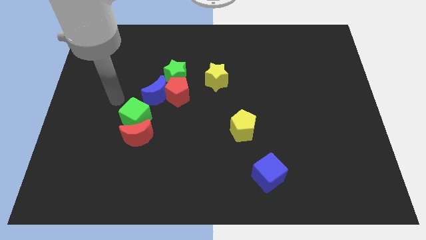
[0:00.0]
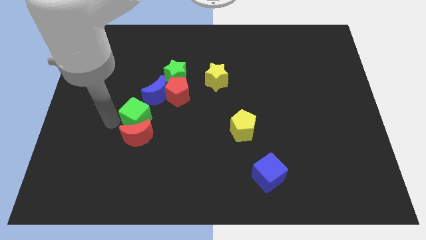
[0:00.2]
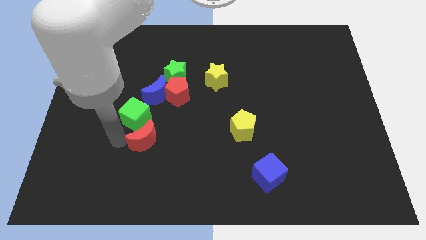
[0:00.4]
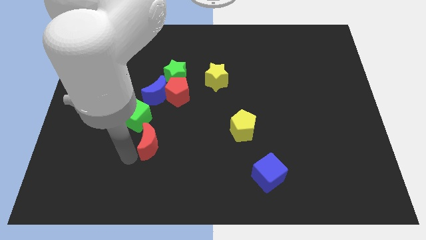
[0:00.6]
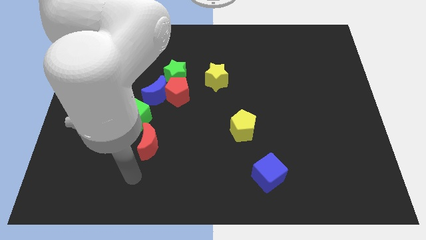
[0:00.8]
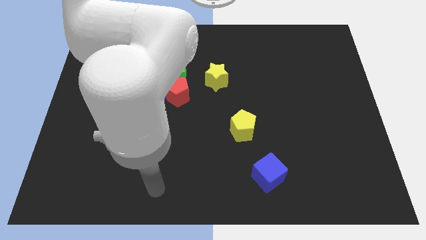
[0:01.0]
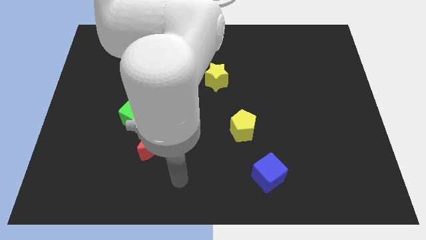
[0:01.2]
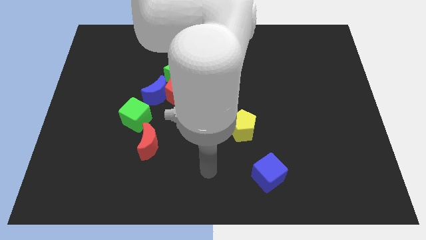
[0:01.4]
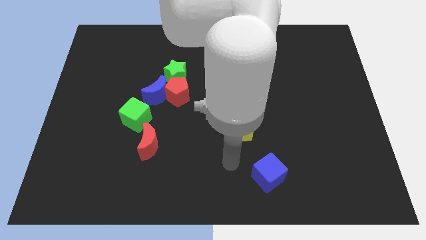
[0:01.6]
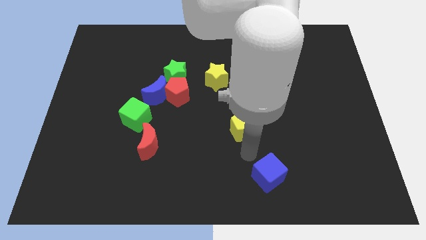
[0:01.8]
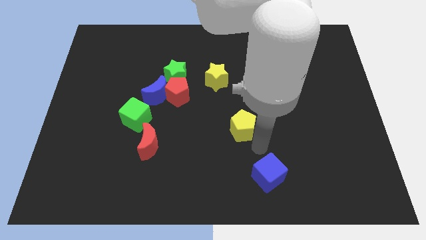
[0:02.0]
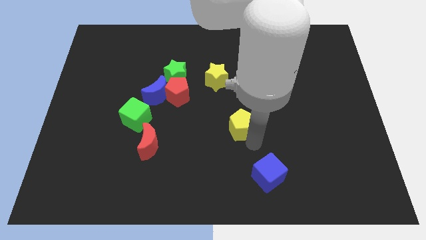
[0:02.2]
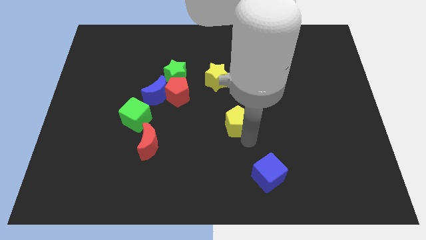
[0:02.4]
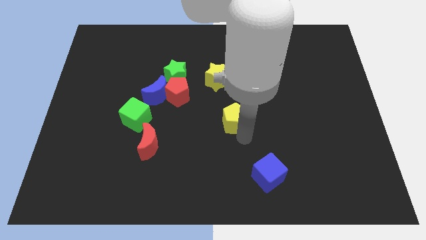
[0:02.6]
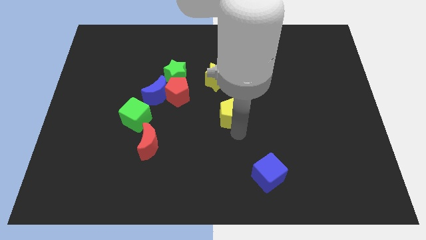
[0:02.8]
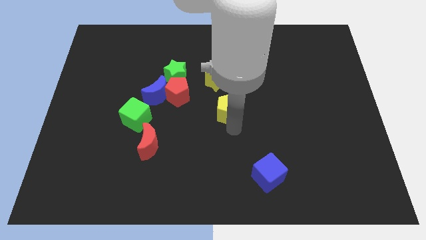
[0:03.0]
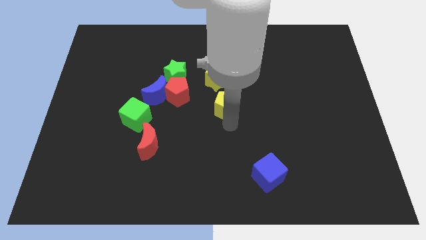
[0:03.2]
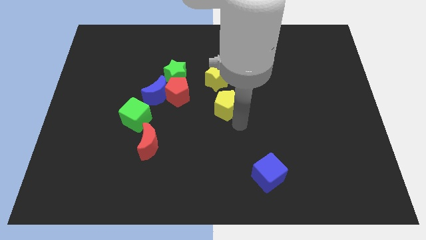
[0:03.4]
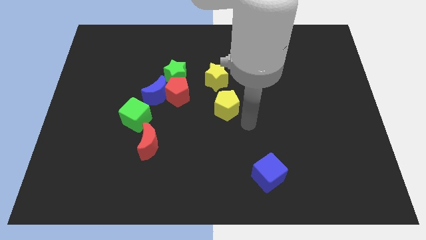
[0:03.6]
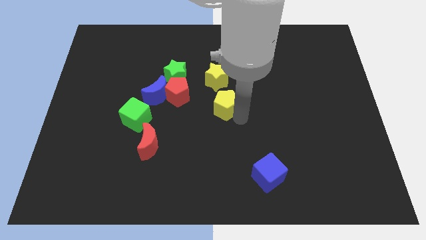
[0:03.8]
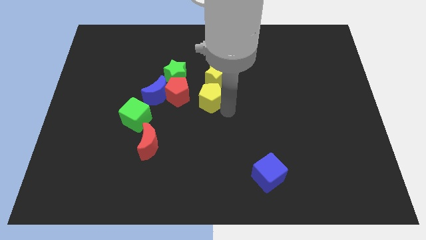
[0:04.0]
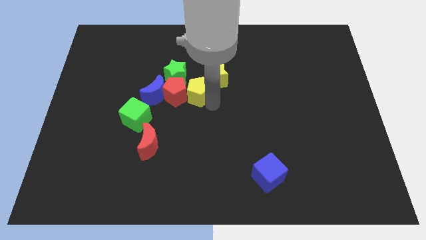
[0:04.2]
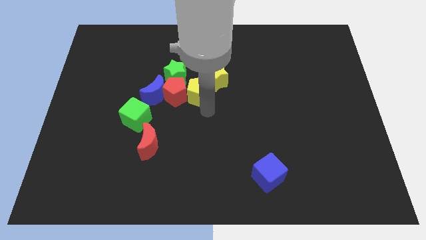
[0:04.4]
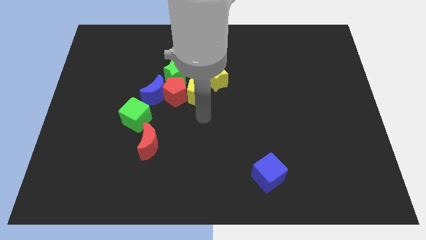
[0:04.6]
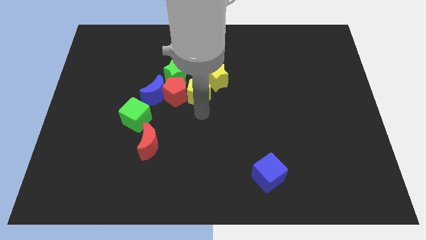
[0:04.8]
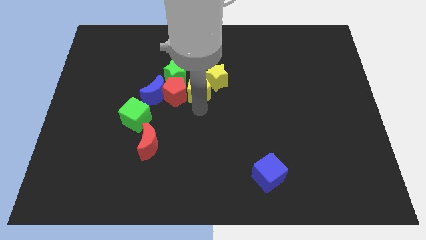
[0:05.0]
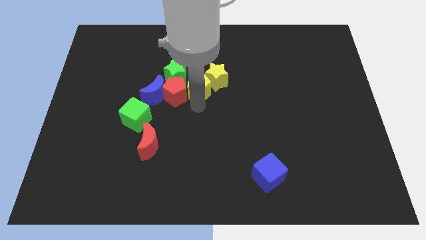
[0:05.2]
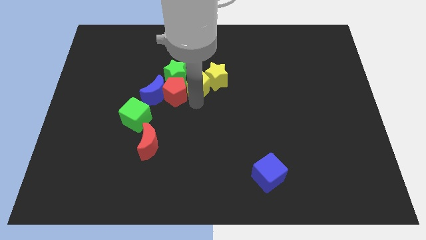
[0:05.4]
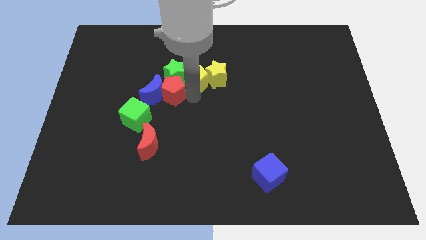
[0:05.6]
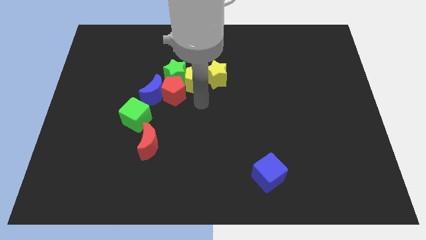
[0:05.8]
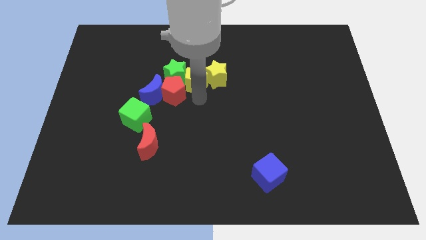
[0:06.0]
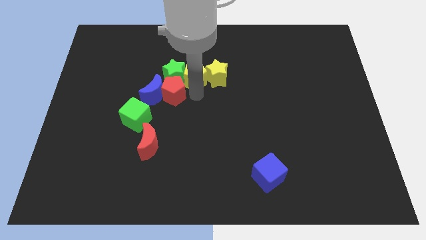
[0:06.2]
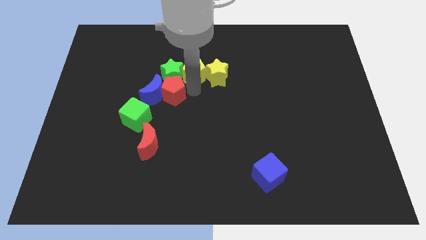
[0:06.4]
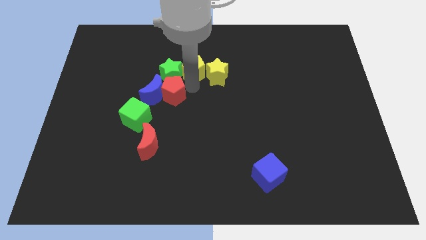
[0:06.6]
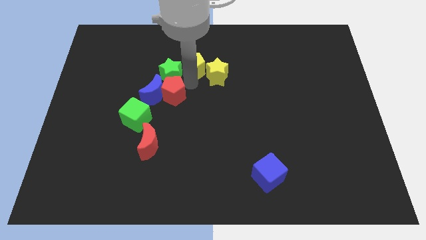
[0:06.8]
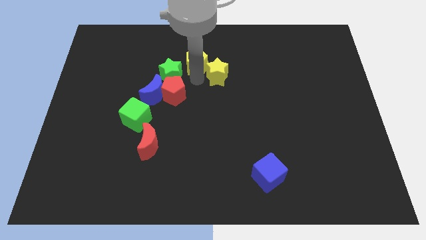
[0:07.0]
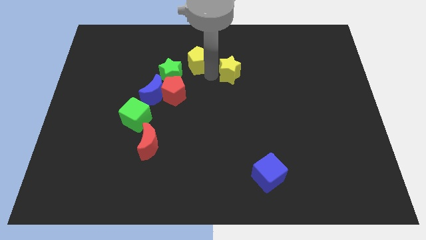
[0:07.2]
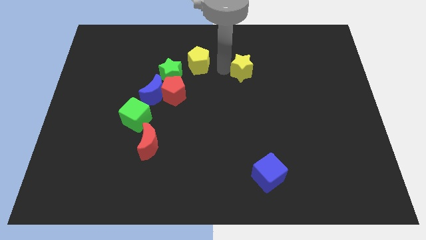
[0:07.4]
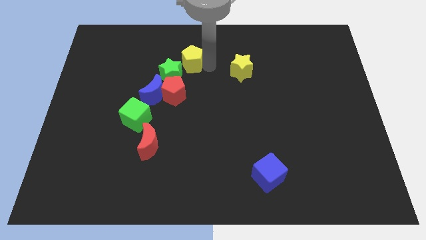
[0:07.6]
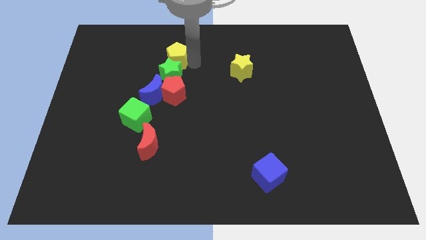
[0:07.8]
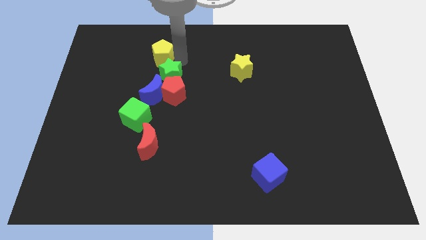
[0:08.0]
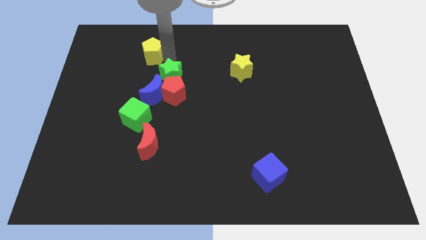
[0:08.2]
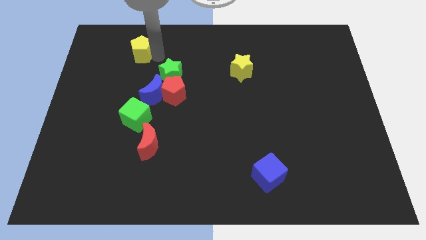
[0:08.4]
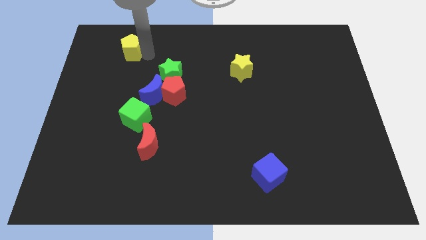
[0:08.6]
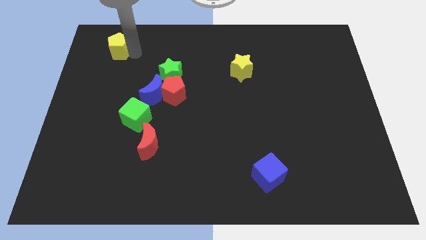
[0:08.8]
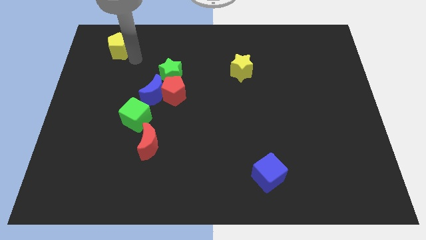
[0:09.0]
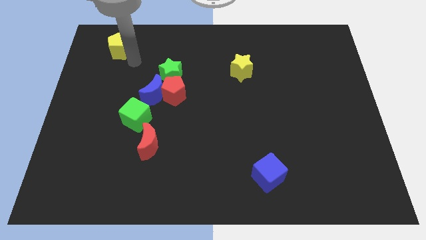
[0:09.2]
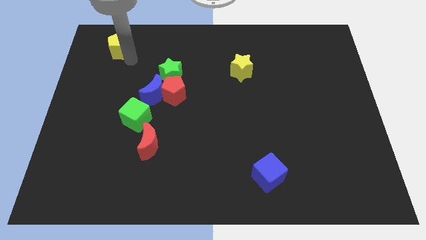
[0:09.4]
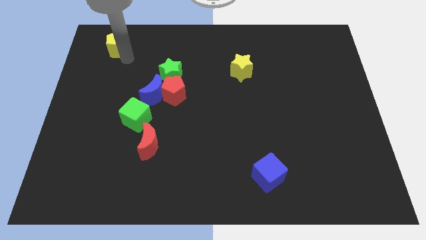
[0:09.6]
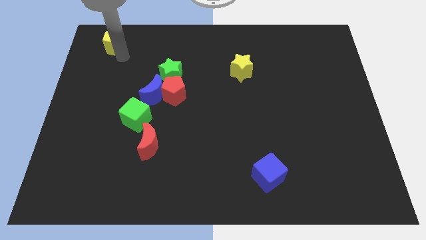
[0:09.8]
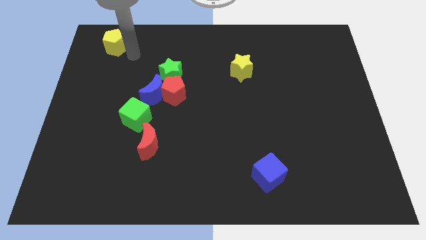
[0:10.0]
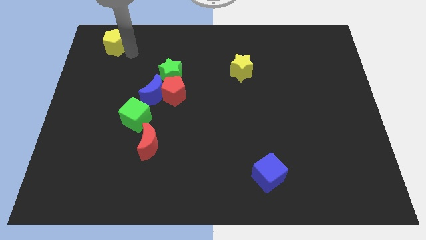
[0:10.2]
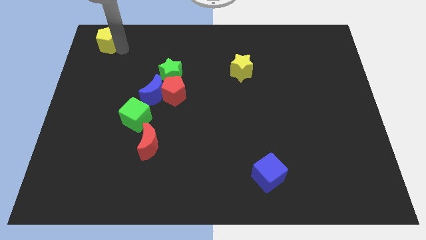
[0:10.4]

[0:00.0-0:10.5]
move the yellow pentagon to the top left

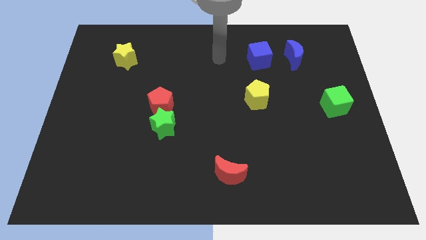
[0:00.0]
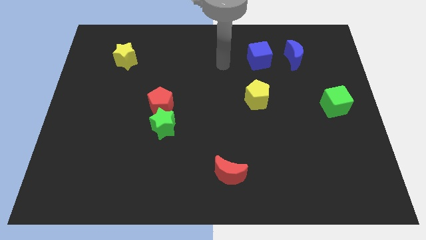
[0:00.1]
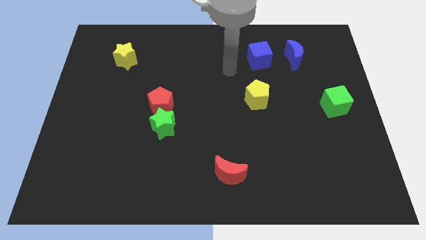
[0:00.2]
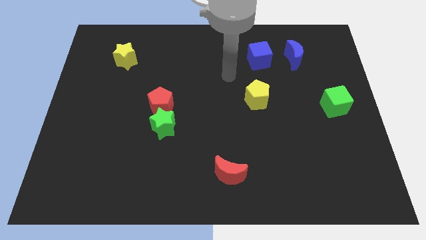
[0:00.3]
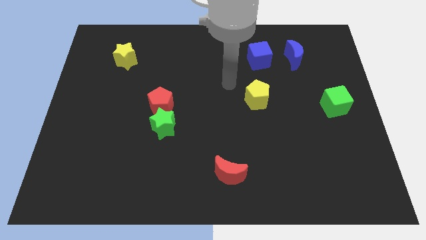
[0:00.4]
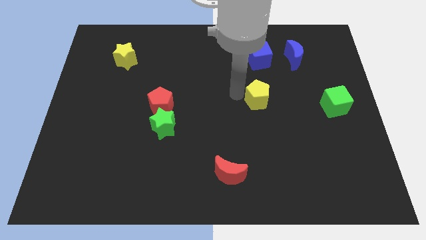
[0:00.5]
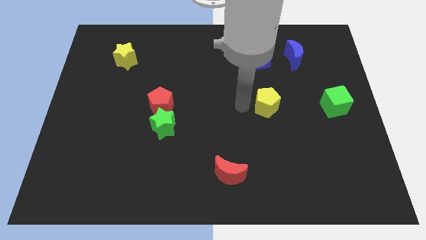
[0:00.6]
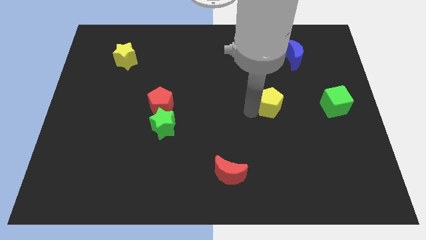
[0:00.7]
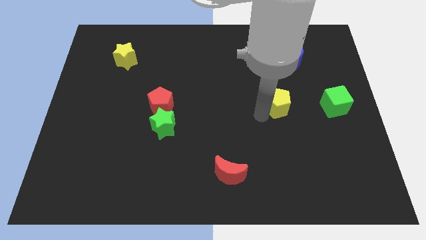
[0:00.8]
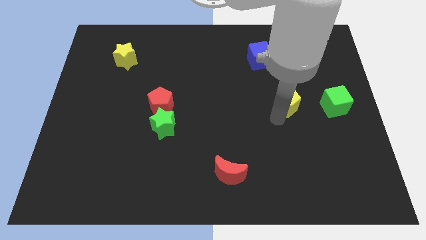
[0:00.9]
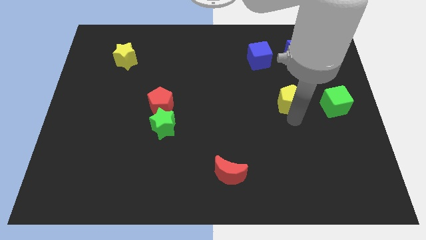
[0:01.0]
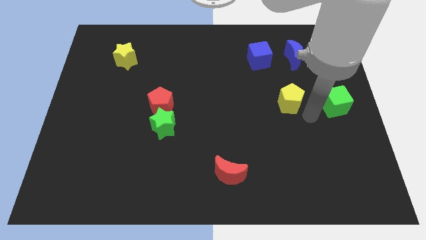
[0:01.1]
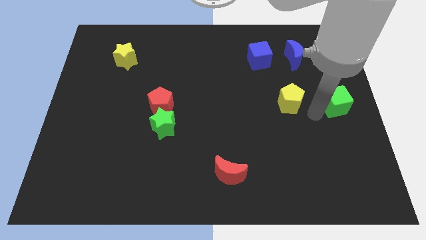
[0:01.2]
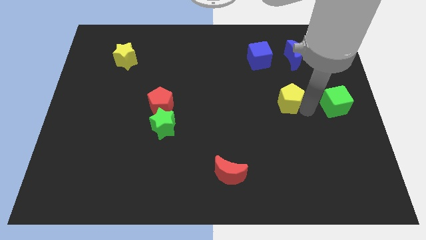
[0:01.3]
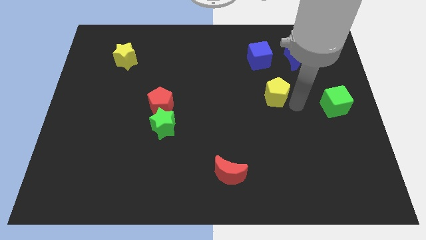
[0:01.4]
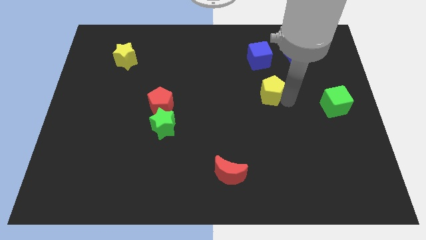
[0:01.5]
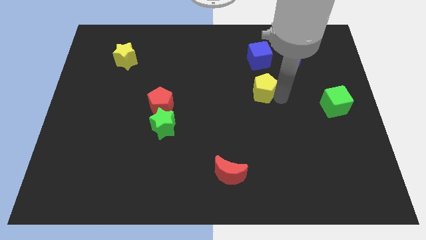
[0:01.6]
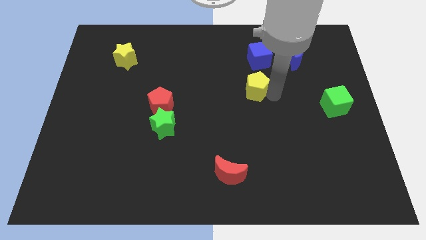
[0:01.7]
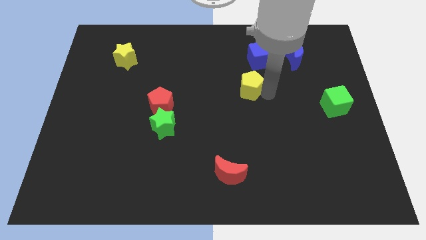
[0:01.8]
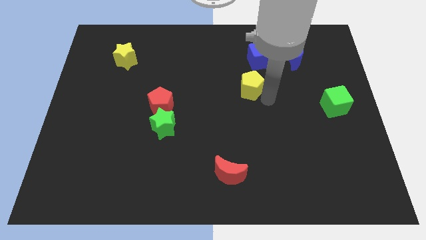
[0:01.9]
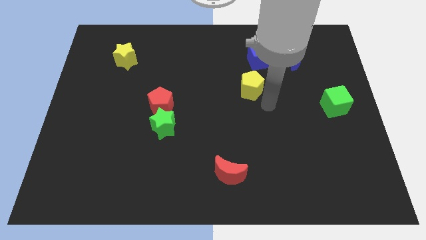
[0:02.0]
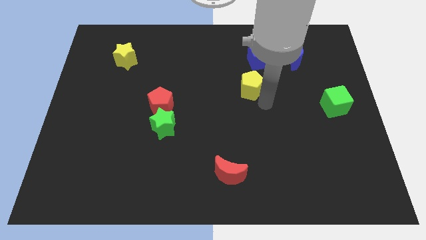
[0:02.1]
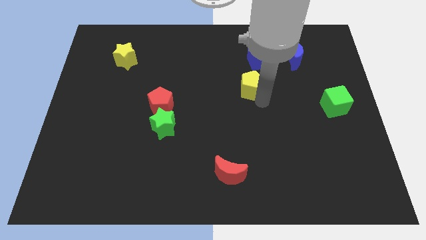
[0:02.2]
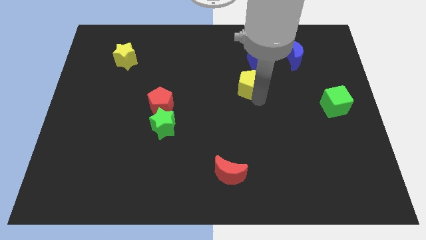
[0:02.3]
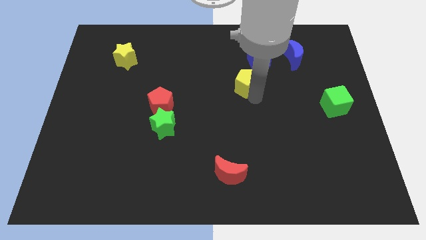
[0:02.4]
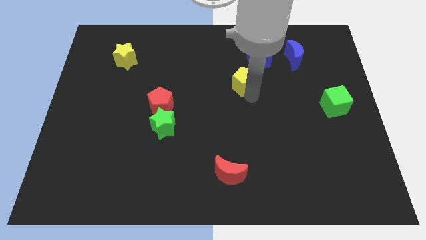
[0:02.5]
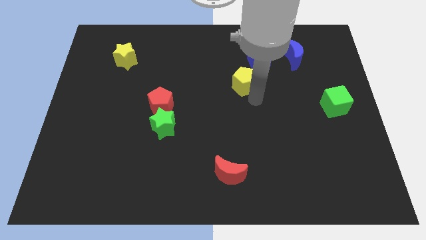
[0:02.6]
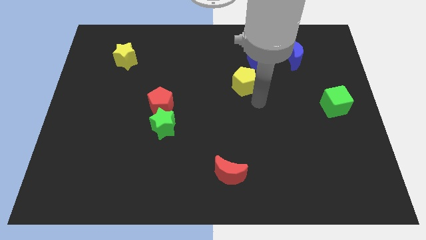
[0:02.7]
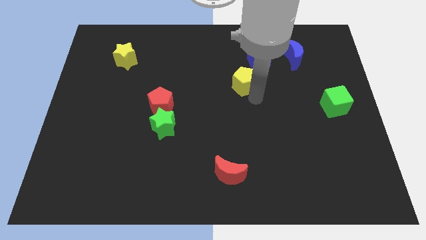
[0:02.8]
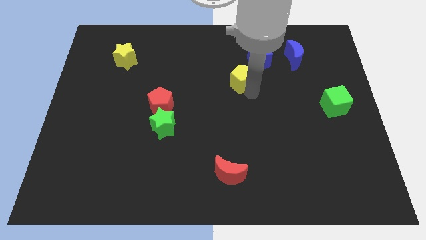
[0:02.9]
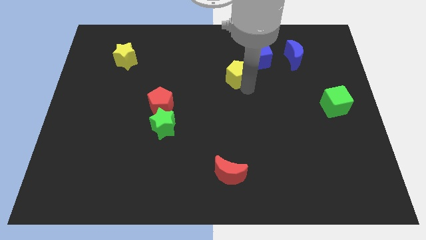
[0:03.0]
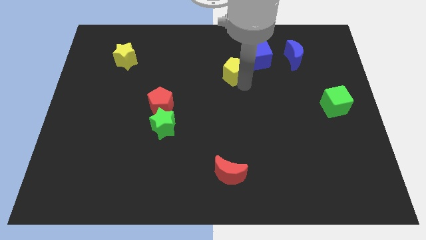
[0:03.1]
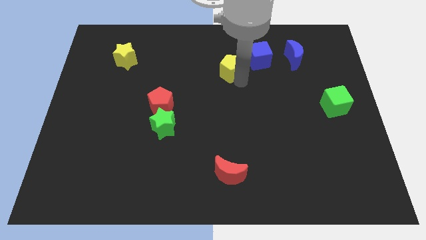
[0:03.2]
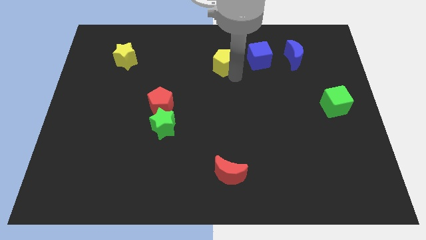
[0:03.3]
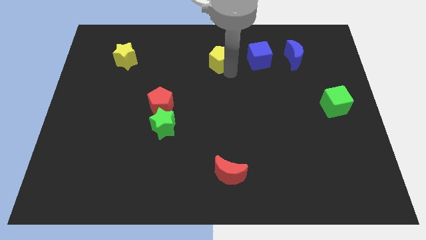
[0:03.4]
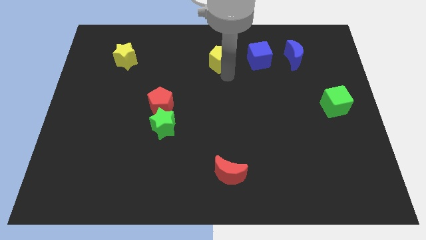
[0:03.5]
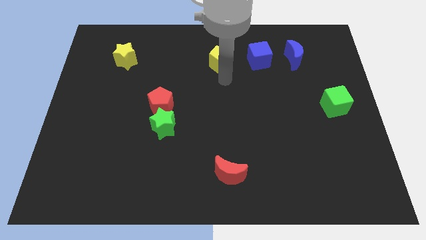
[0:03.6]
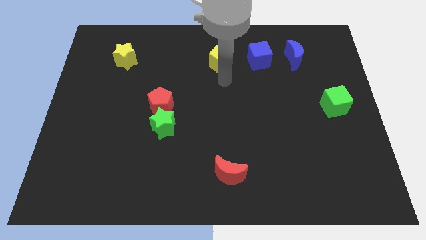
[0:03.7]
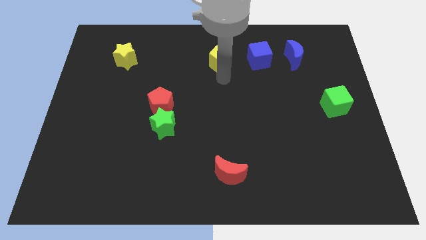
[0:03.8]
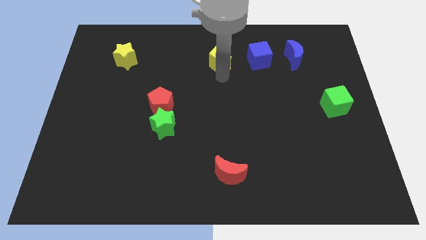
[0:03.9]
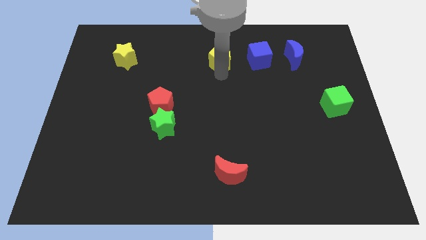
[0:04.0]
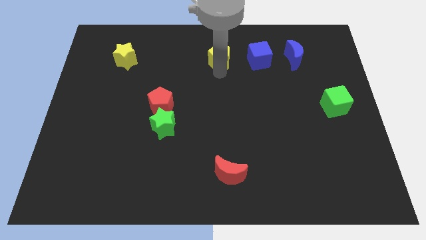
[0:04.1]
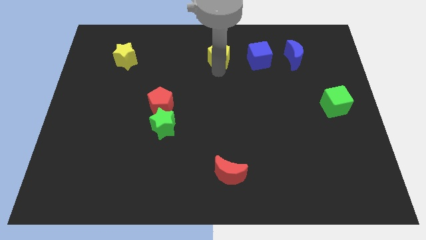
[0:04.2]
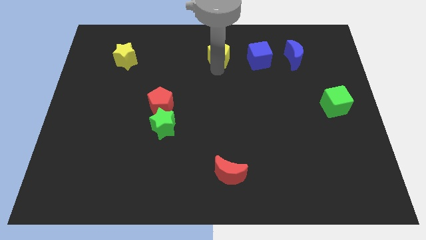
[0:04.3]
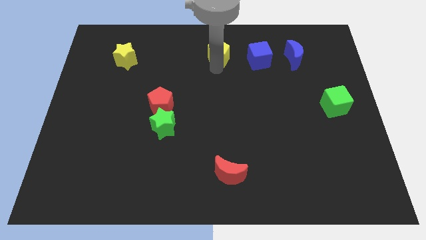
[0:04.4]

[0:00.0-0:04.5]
put the yellow pentagon to the top side
